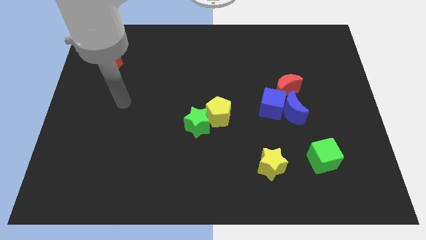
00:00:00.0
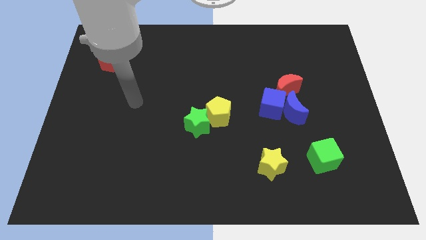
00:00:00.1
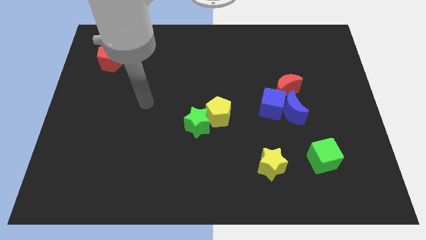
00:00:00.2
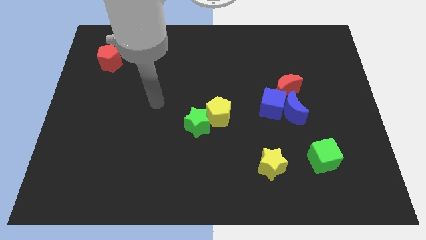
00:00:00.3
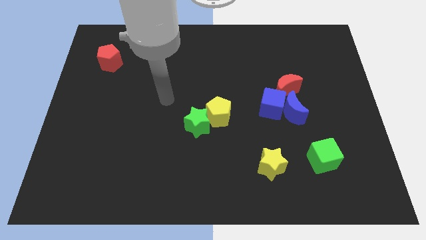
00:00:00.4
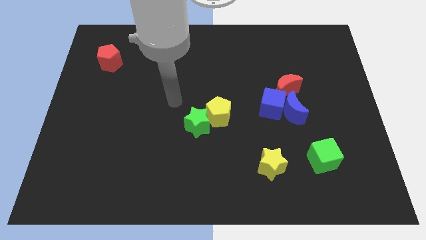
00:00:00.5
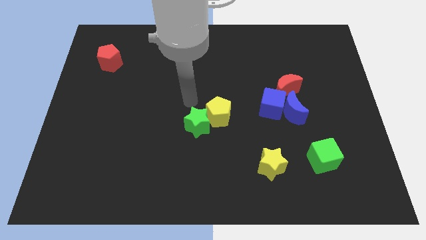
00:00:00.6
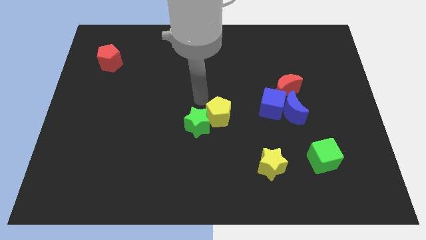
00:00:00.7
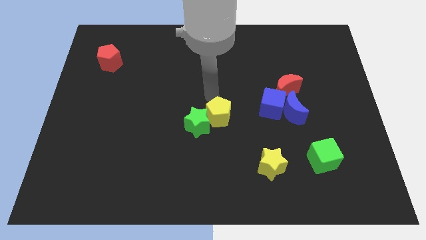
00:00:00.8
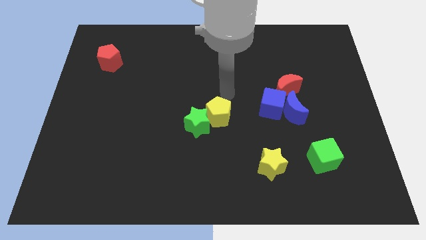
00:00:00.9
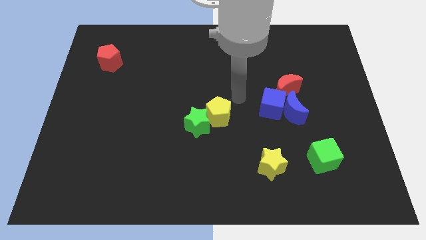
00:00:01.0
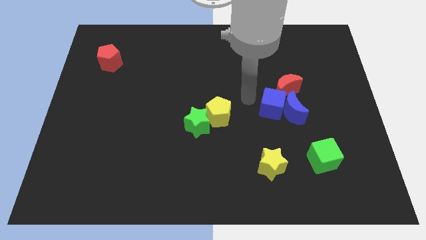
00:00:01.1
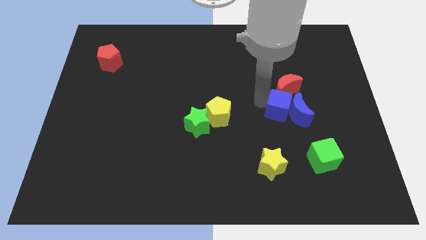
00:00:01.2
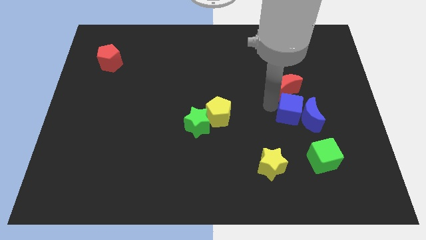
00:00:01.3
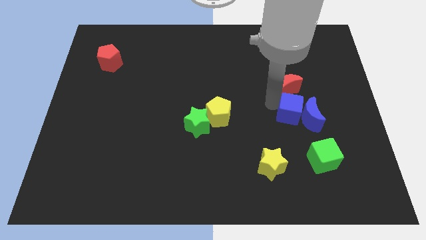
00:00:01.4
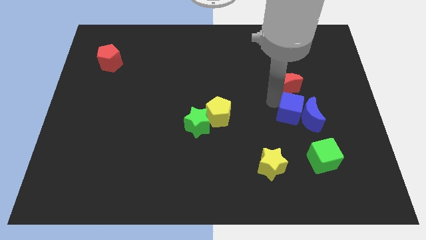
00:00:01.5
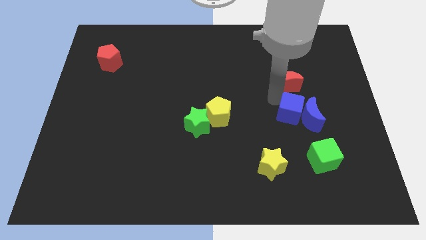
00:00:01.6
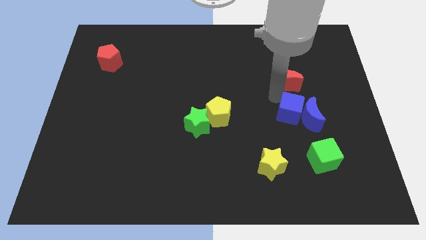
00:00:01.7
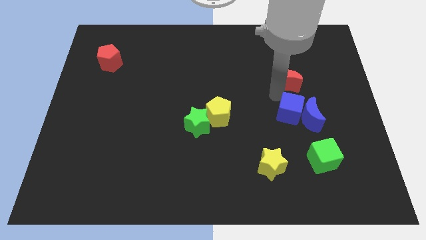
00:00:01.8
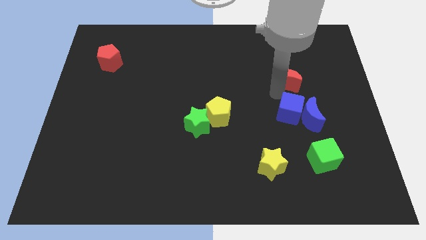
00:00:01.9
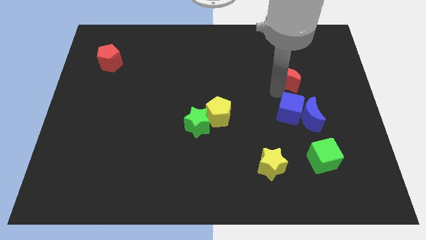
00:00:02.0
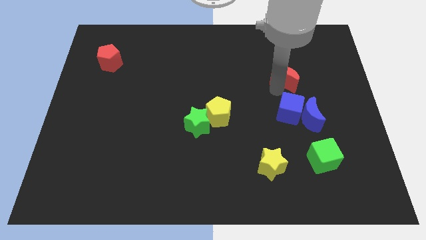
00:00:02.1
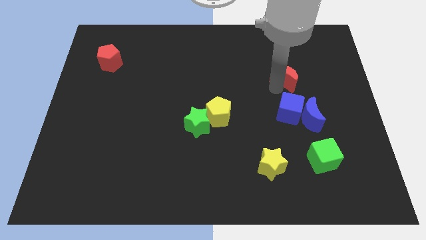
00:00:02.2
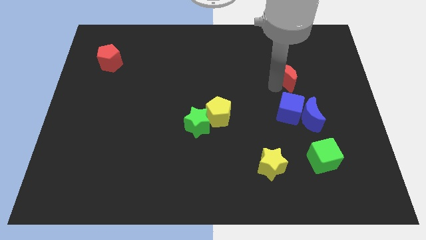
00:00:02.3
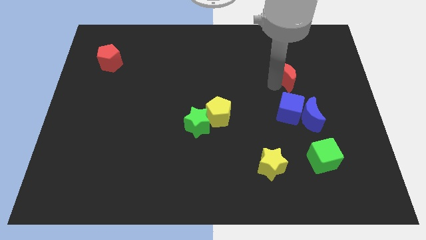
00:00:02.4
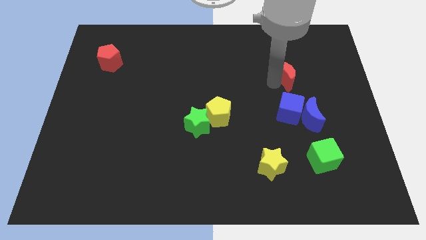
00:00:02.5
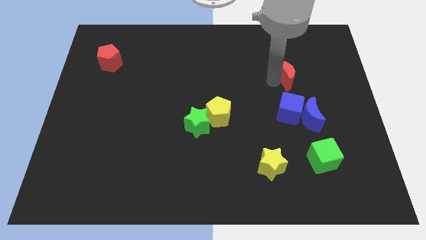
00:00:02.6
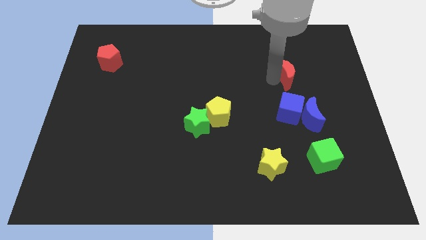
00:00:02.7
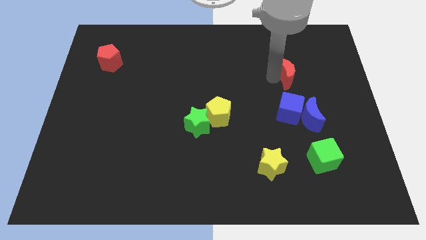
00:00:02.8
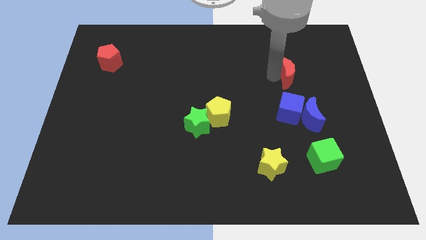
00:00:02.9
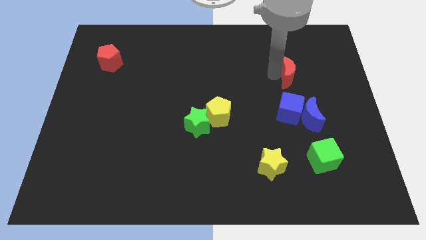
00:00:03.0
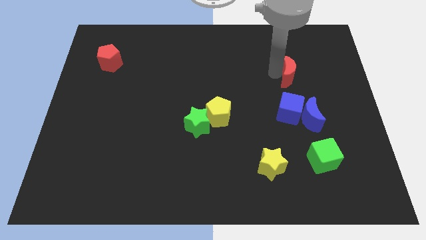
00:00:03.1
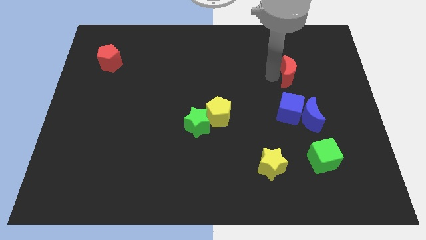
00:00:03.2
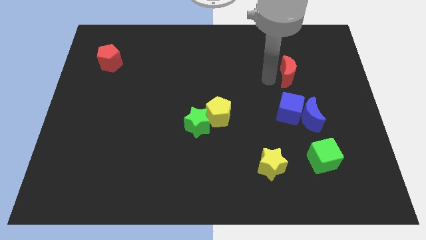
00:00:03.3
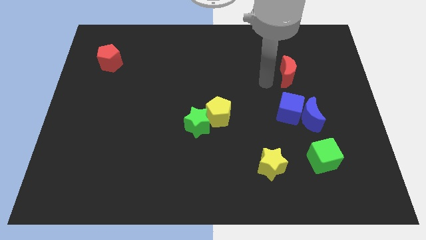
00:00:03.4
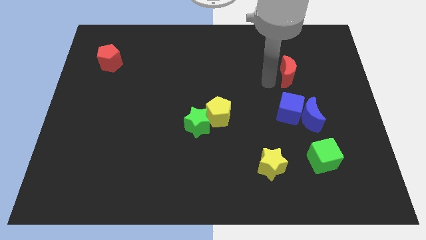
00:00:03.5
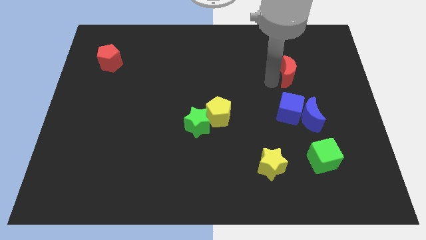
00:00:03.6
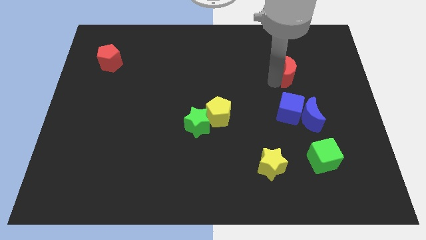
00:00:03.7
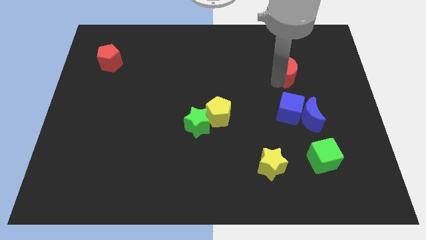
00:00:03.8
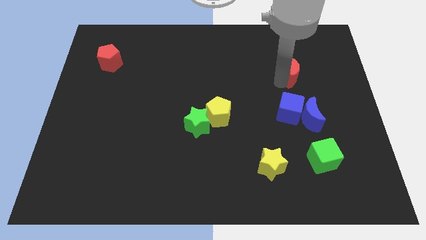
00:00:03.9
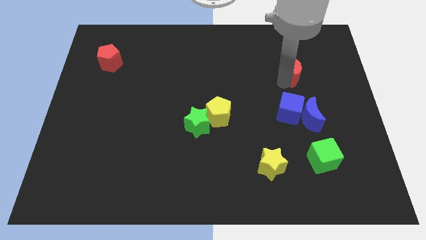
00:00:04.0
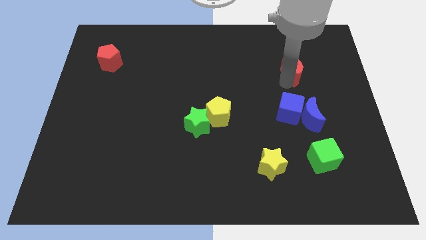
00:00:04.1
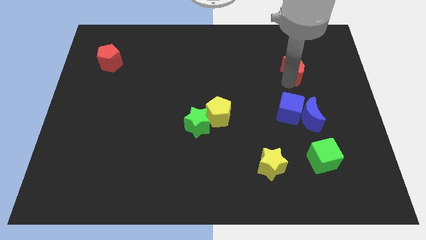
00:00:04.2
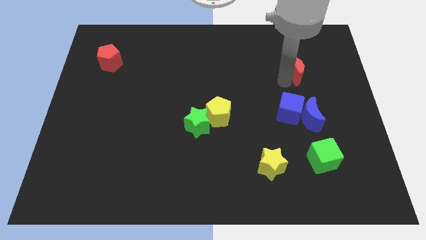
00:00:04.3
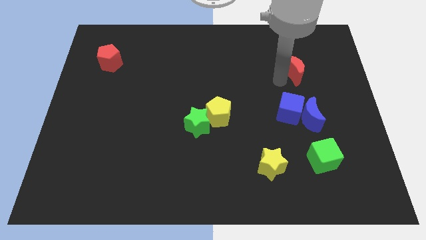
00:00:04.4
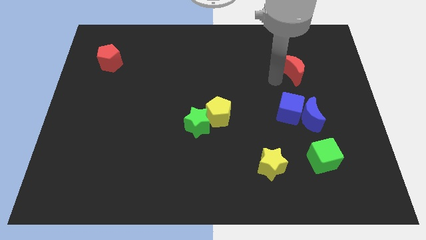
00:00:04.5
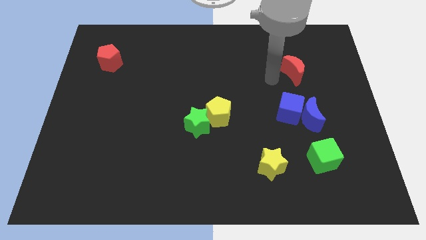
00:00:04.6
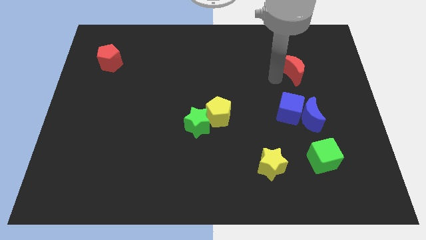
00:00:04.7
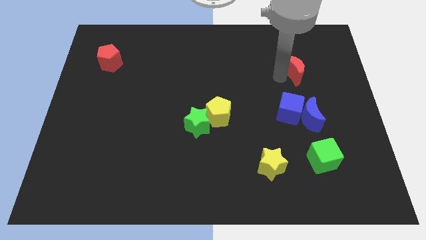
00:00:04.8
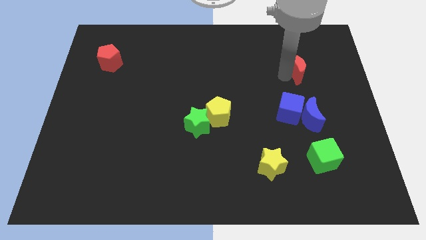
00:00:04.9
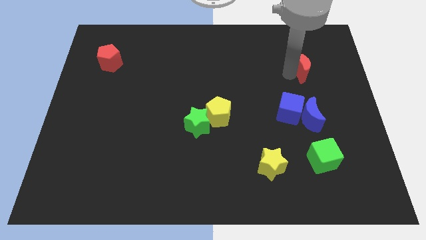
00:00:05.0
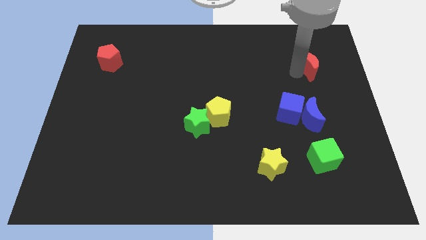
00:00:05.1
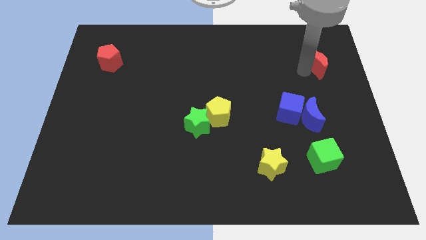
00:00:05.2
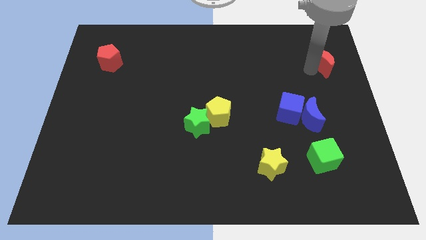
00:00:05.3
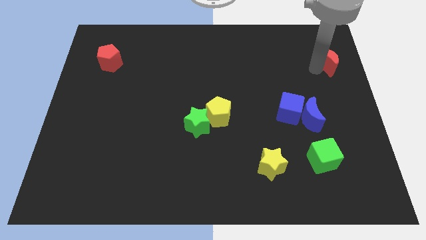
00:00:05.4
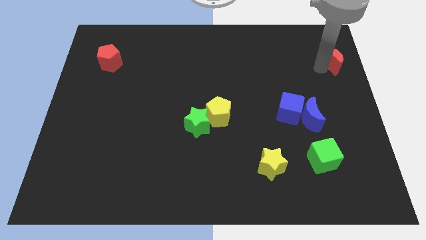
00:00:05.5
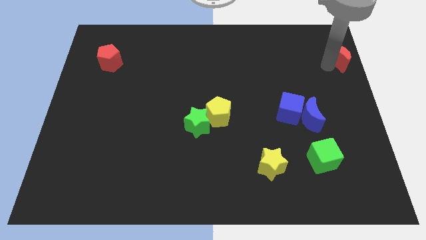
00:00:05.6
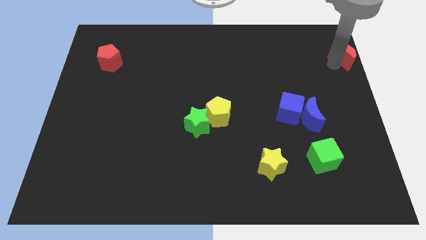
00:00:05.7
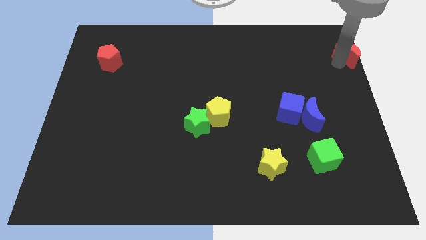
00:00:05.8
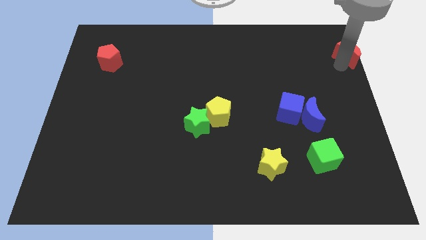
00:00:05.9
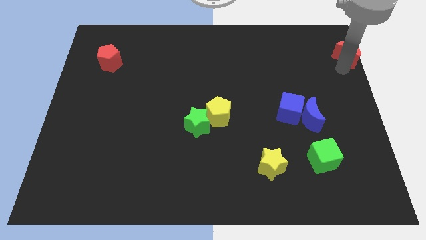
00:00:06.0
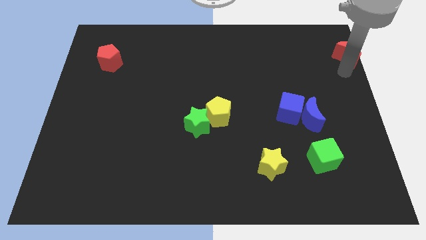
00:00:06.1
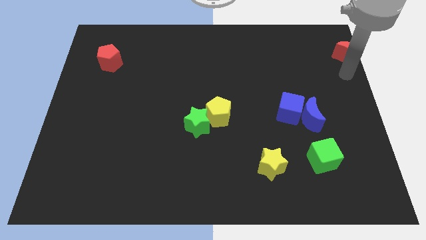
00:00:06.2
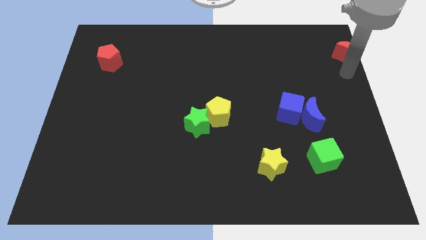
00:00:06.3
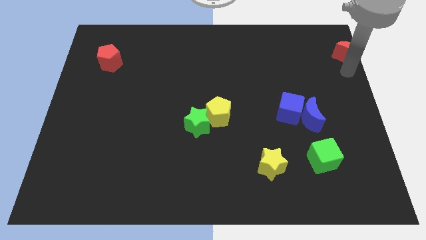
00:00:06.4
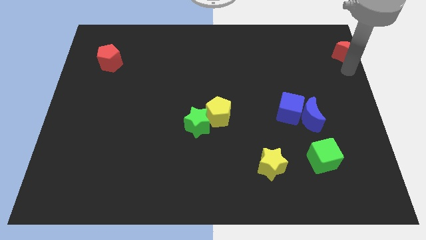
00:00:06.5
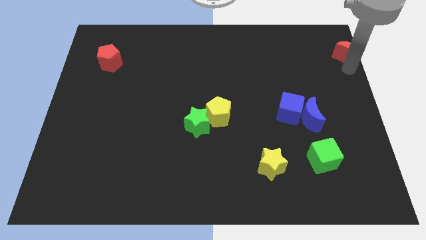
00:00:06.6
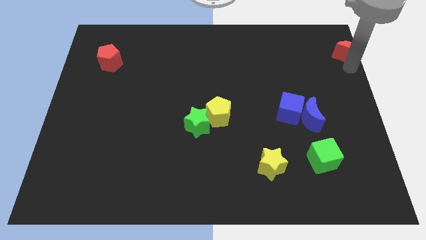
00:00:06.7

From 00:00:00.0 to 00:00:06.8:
put the red moon to the top right corner

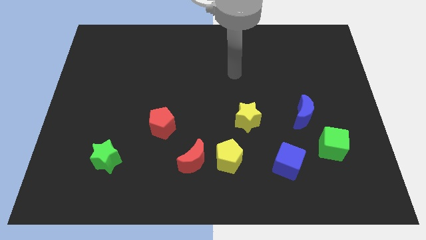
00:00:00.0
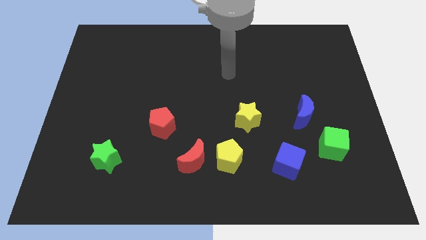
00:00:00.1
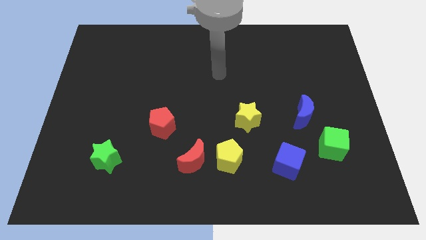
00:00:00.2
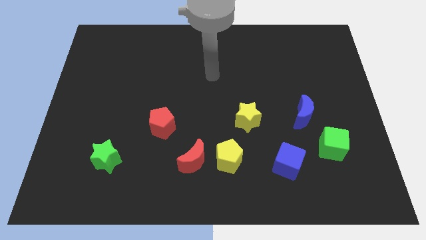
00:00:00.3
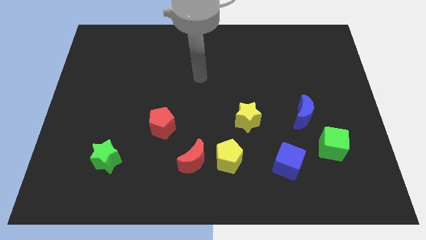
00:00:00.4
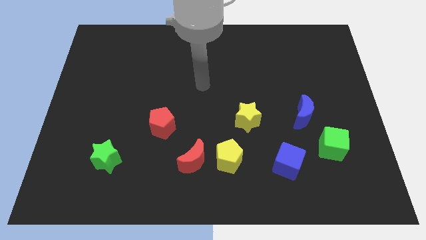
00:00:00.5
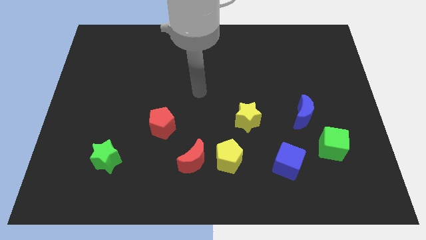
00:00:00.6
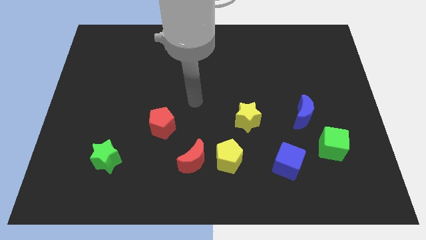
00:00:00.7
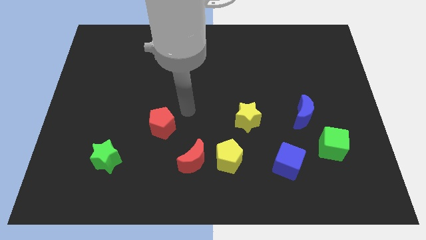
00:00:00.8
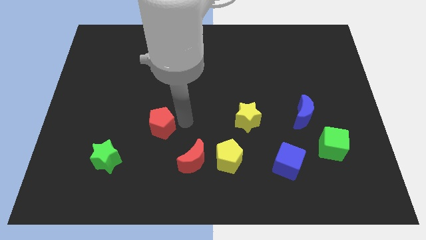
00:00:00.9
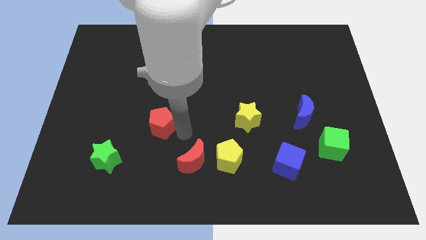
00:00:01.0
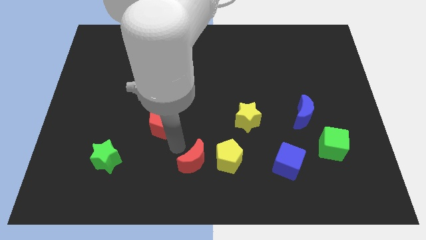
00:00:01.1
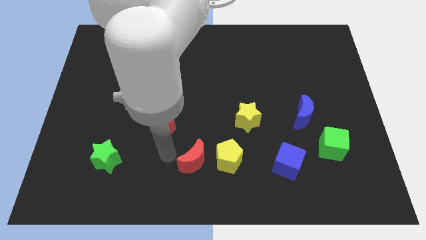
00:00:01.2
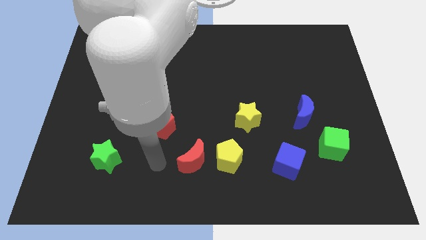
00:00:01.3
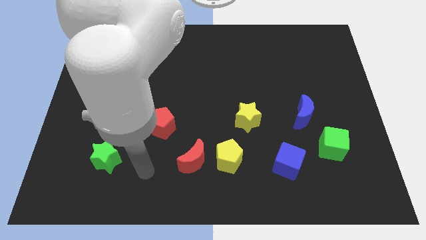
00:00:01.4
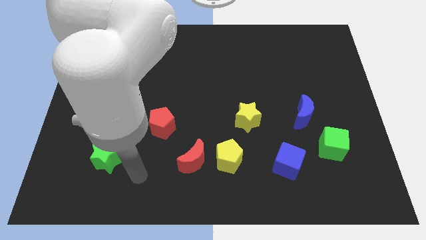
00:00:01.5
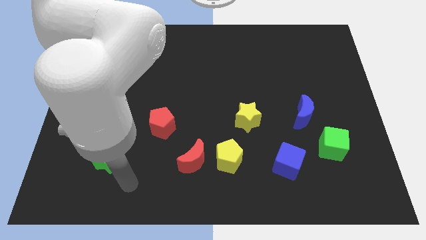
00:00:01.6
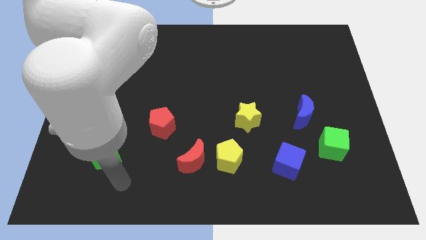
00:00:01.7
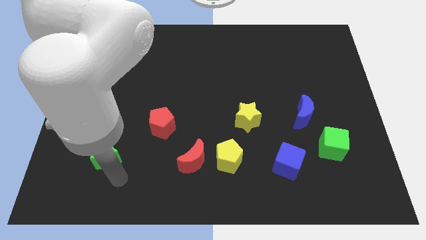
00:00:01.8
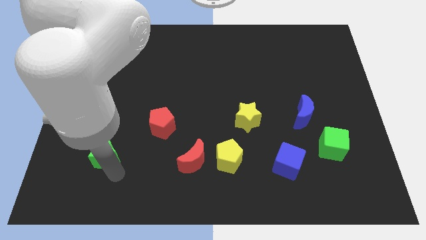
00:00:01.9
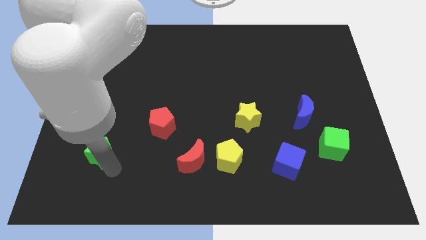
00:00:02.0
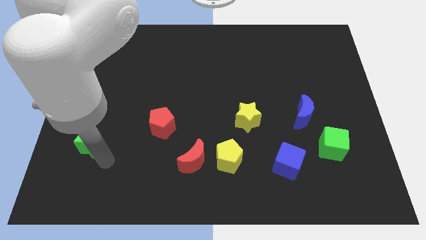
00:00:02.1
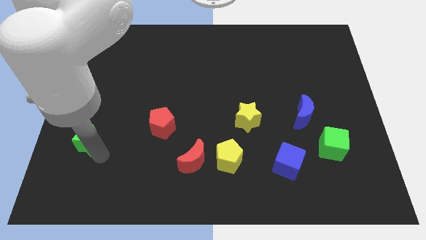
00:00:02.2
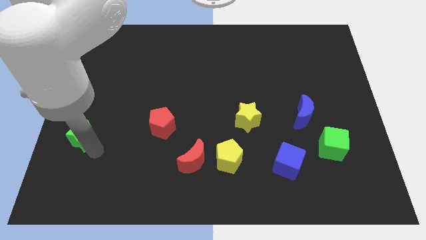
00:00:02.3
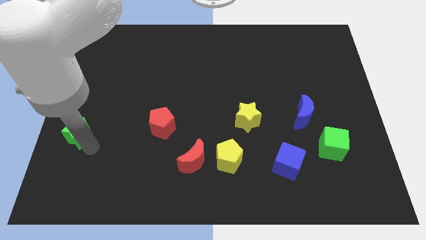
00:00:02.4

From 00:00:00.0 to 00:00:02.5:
slide the green star to the center left
